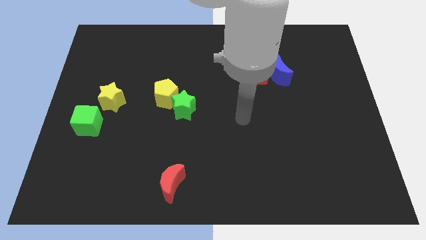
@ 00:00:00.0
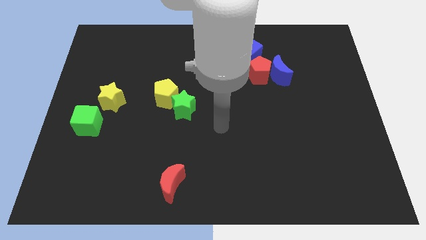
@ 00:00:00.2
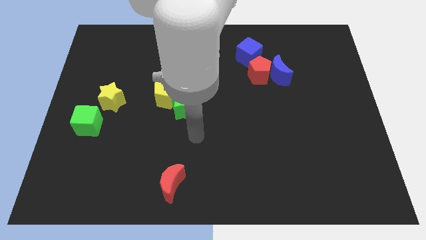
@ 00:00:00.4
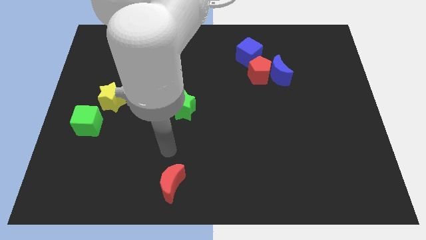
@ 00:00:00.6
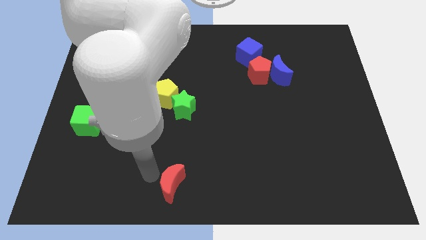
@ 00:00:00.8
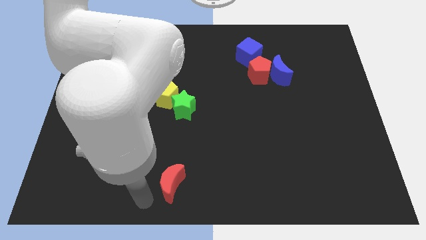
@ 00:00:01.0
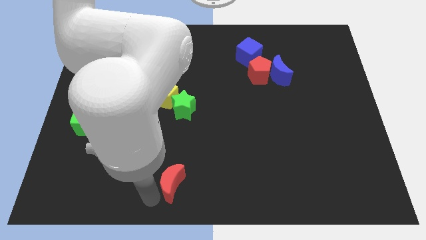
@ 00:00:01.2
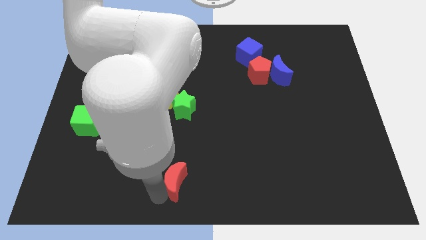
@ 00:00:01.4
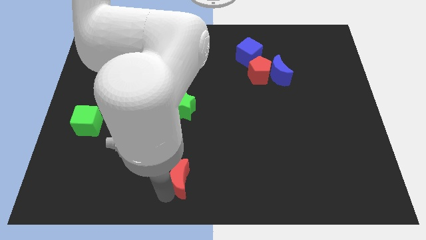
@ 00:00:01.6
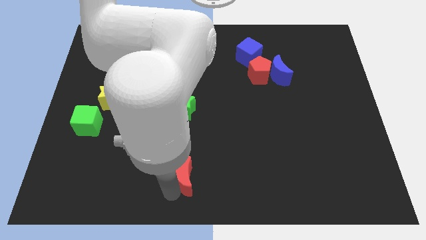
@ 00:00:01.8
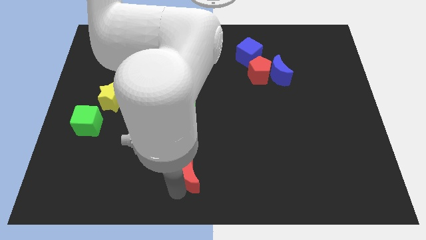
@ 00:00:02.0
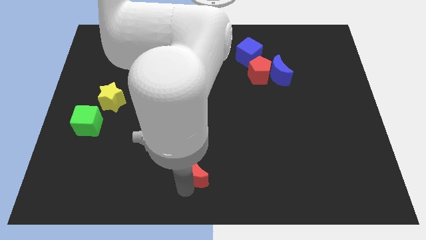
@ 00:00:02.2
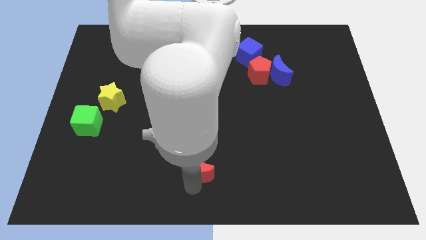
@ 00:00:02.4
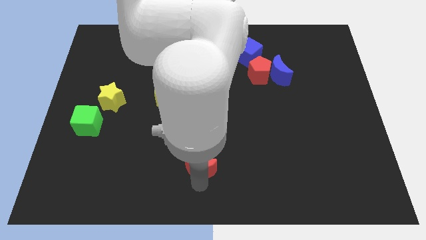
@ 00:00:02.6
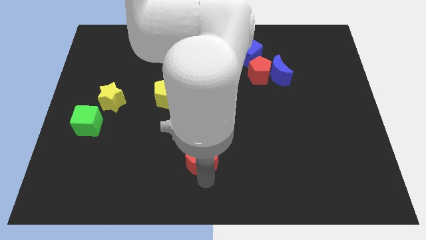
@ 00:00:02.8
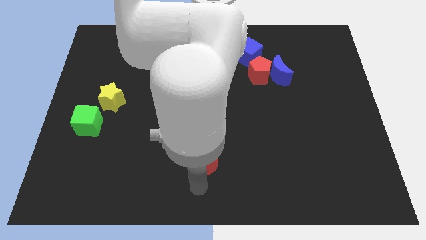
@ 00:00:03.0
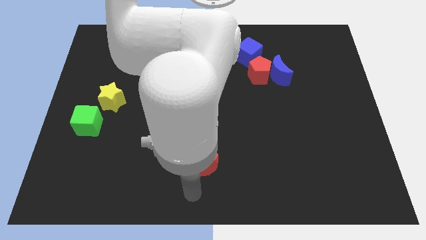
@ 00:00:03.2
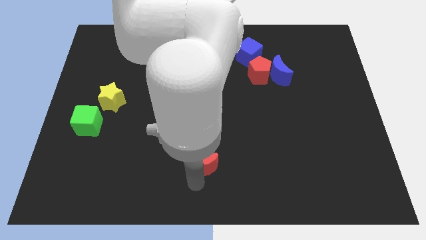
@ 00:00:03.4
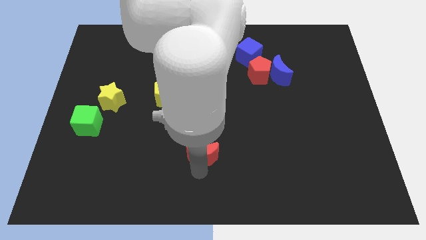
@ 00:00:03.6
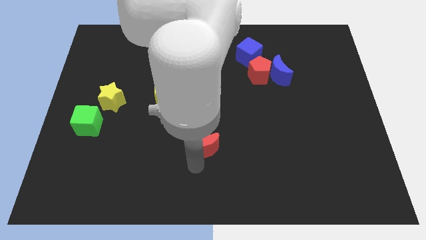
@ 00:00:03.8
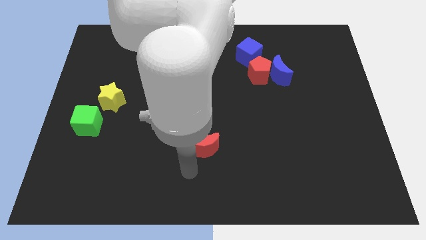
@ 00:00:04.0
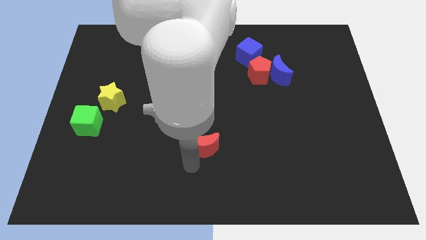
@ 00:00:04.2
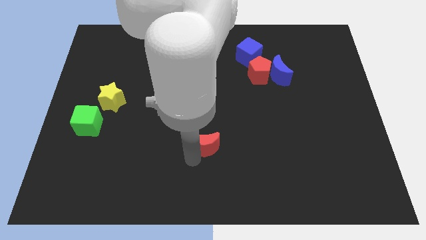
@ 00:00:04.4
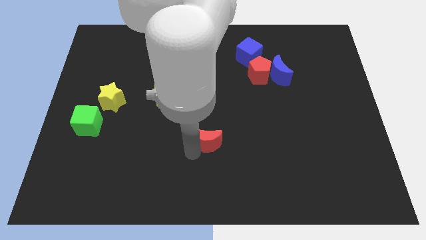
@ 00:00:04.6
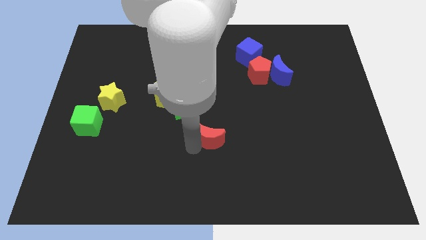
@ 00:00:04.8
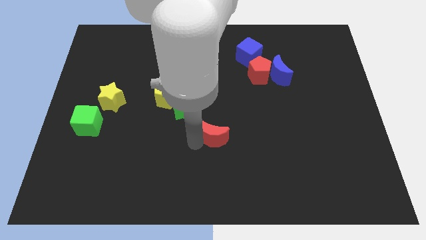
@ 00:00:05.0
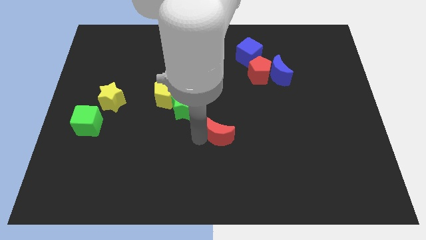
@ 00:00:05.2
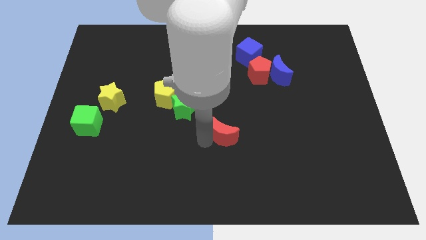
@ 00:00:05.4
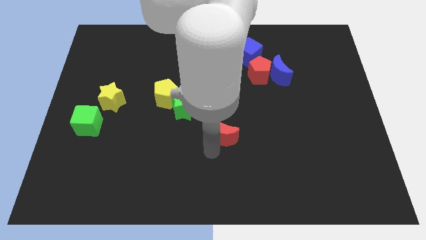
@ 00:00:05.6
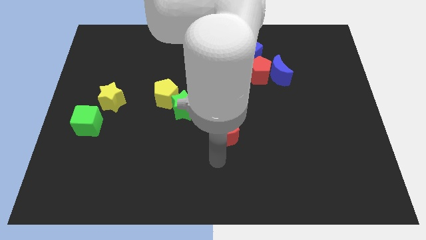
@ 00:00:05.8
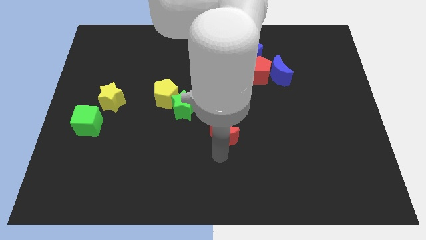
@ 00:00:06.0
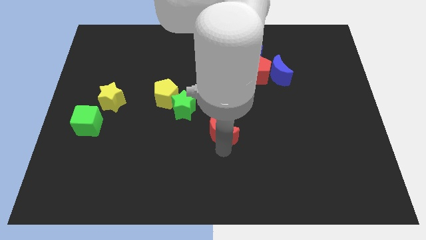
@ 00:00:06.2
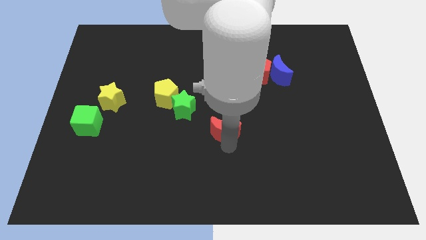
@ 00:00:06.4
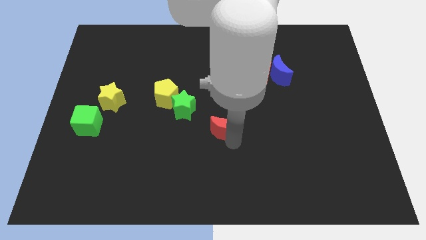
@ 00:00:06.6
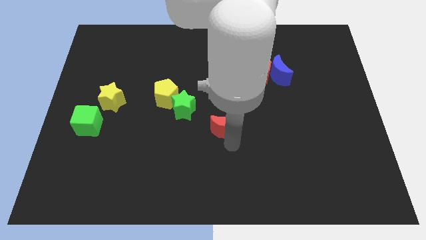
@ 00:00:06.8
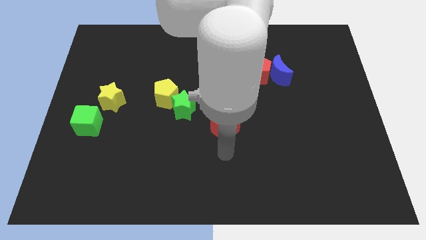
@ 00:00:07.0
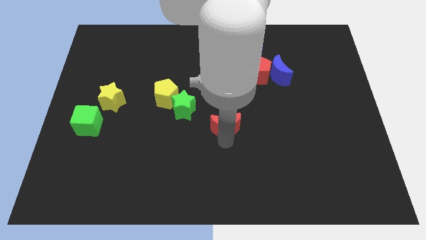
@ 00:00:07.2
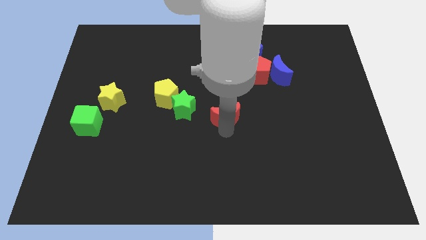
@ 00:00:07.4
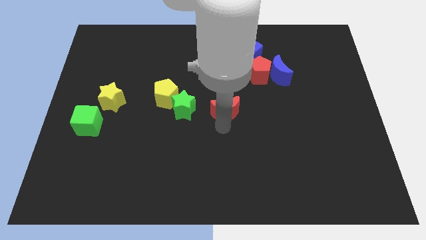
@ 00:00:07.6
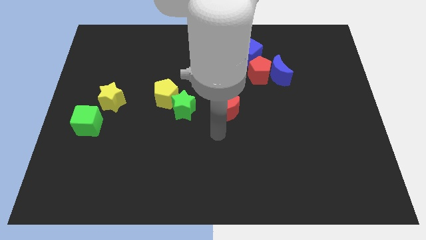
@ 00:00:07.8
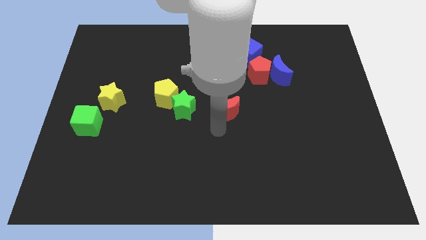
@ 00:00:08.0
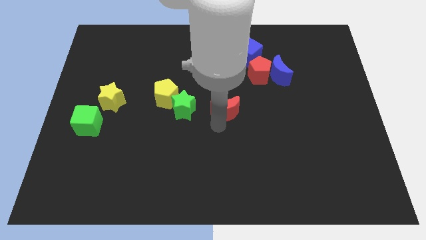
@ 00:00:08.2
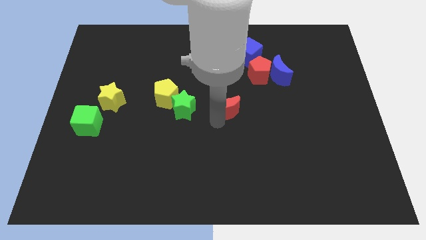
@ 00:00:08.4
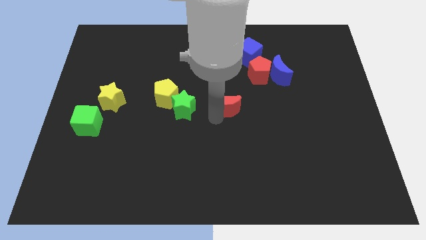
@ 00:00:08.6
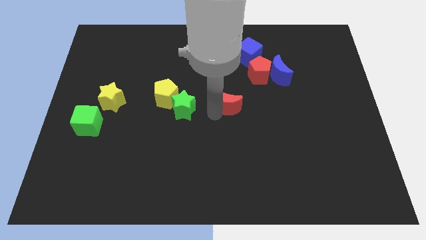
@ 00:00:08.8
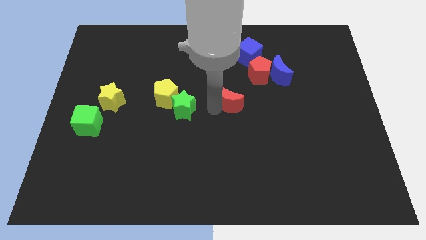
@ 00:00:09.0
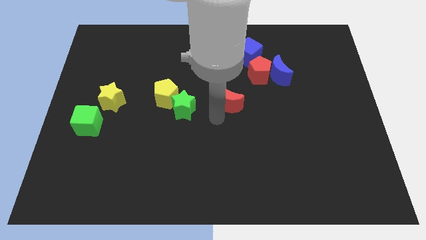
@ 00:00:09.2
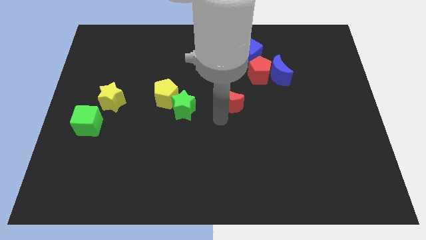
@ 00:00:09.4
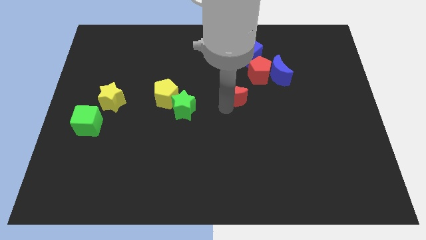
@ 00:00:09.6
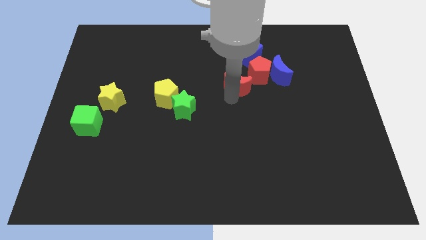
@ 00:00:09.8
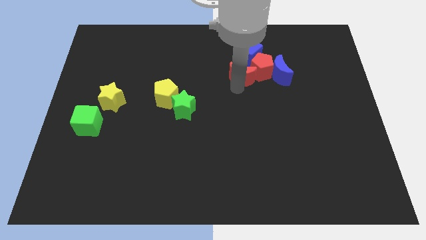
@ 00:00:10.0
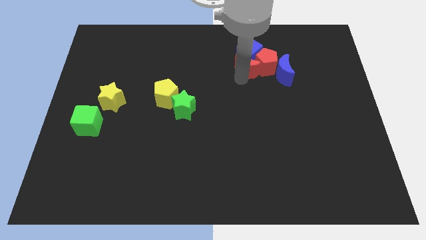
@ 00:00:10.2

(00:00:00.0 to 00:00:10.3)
put the red moon close to the blue cube

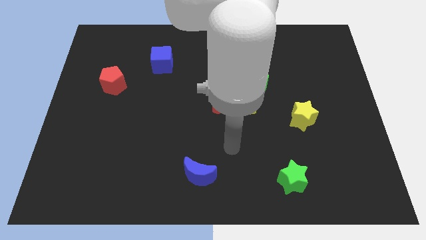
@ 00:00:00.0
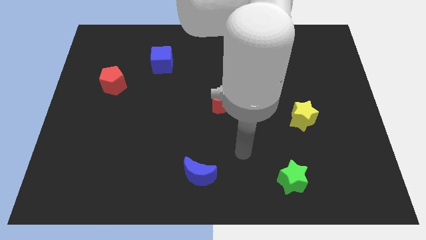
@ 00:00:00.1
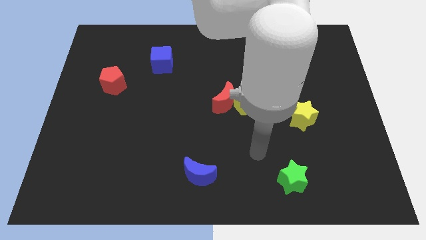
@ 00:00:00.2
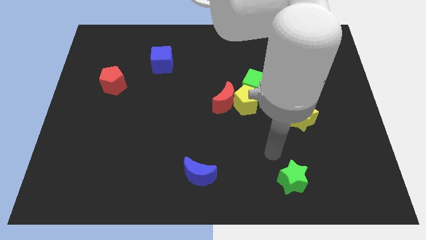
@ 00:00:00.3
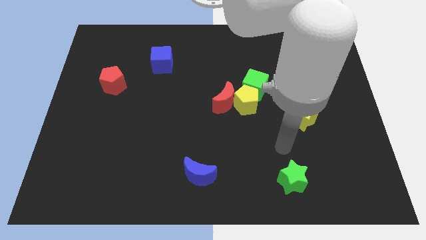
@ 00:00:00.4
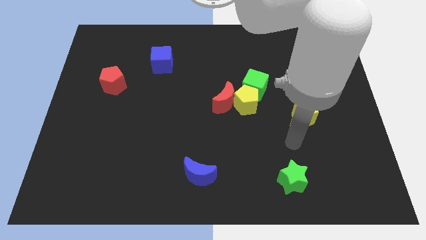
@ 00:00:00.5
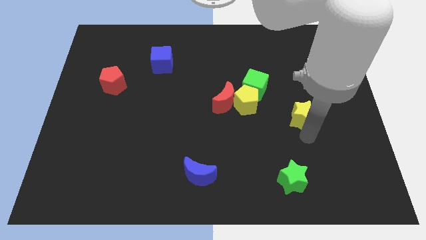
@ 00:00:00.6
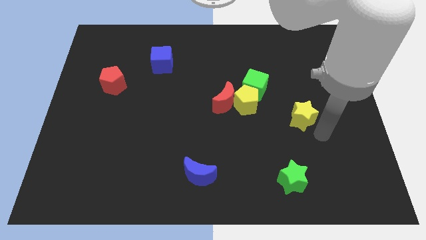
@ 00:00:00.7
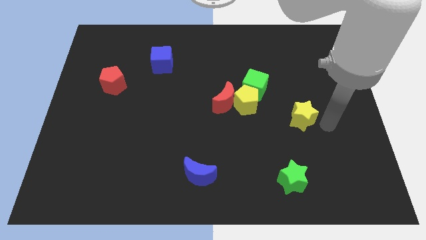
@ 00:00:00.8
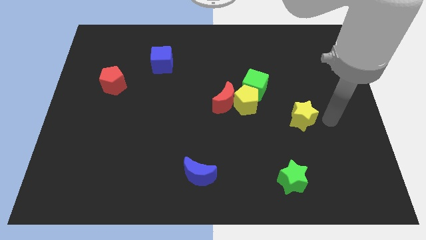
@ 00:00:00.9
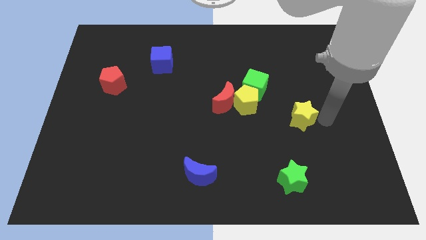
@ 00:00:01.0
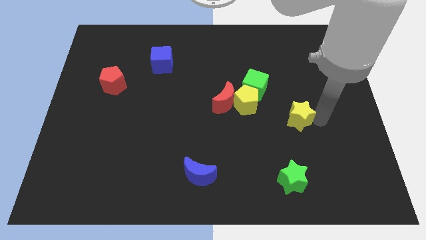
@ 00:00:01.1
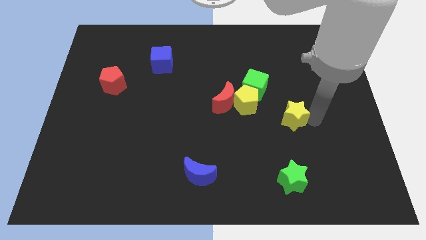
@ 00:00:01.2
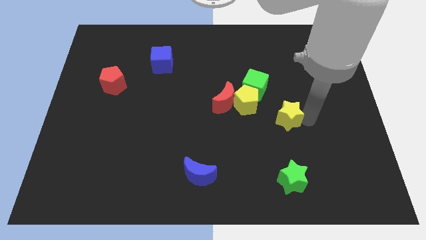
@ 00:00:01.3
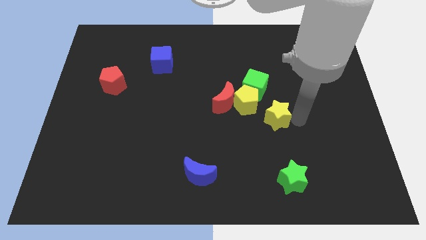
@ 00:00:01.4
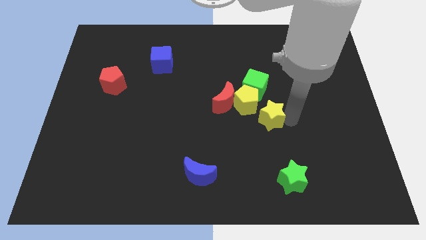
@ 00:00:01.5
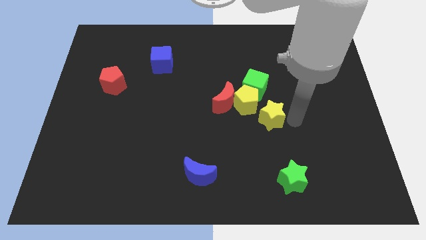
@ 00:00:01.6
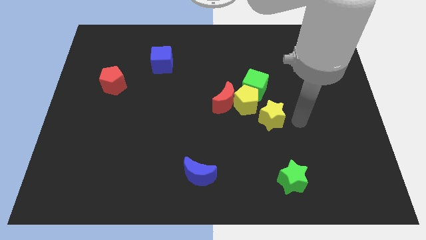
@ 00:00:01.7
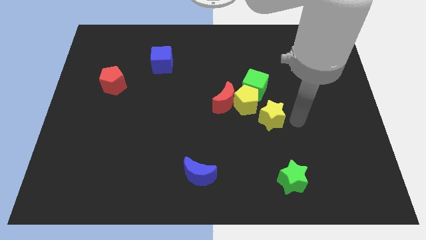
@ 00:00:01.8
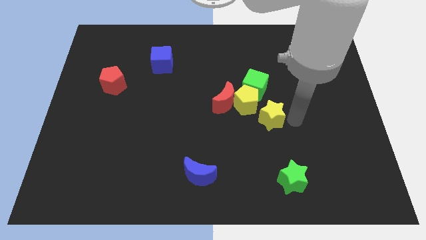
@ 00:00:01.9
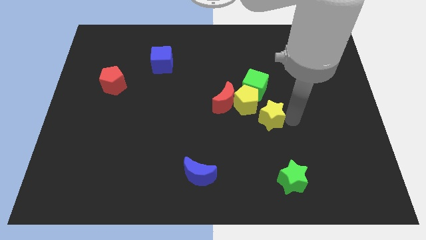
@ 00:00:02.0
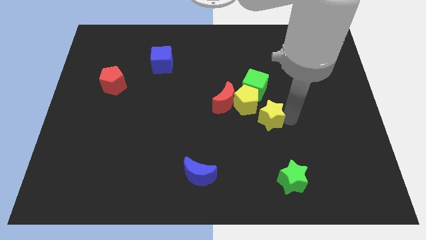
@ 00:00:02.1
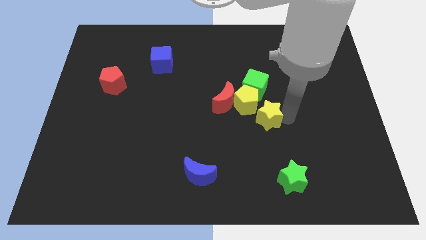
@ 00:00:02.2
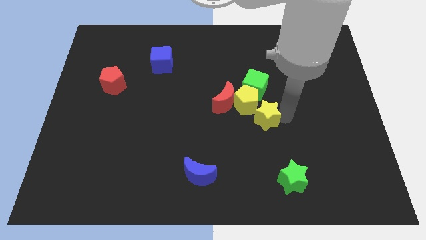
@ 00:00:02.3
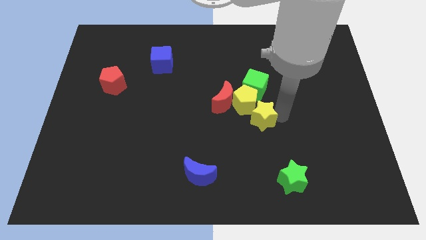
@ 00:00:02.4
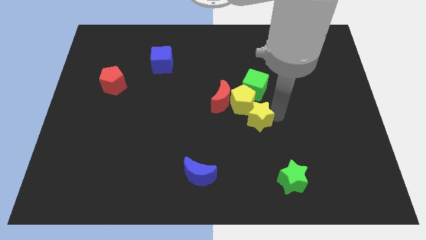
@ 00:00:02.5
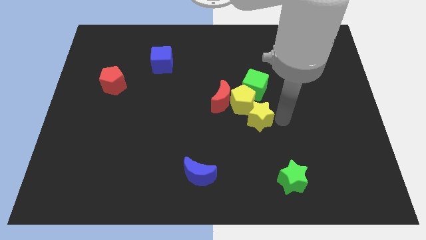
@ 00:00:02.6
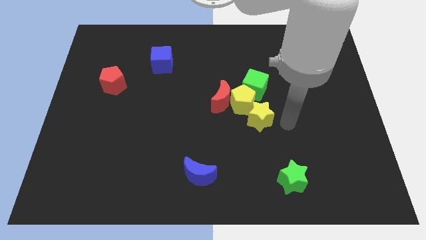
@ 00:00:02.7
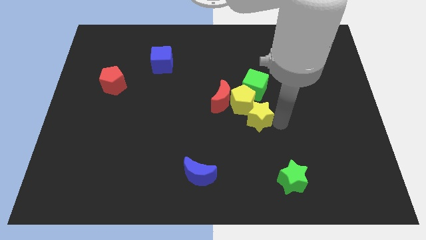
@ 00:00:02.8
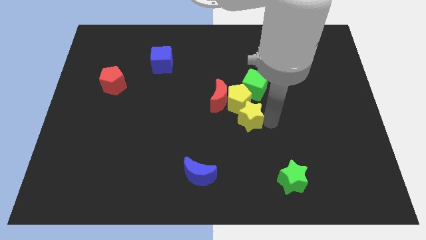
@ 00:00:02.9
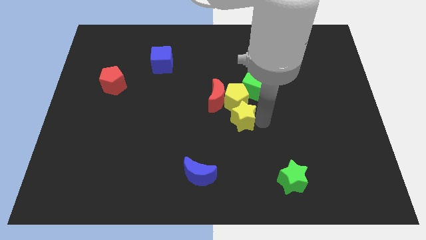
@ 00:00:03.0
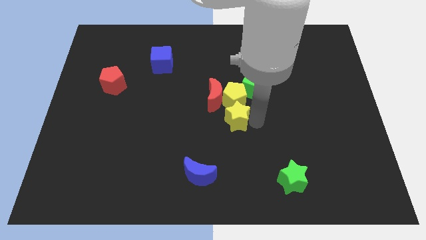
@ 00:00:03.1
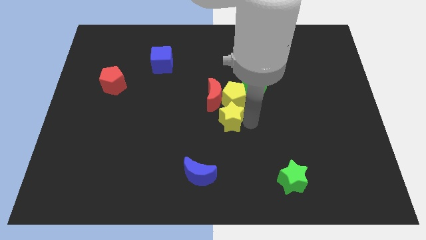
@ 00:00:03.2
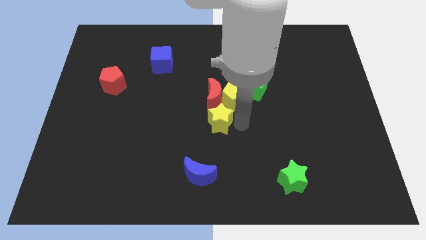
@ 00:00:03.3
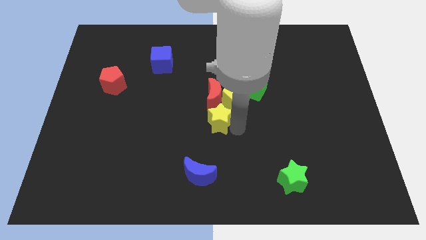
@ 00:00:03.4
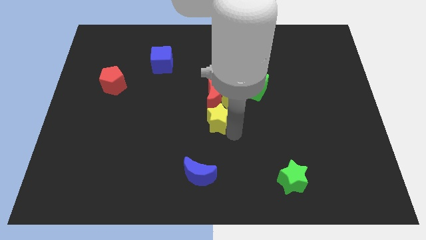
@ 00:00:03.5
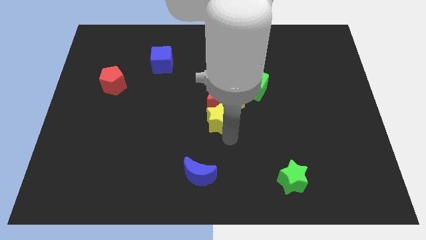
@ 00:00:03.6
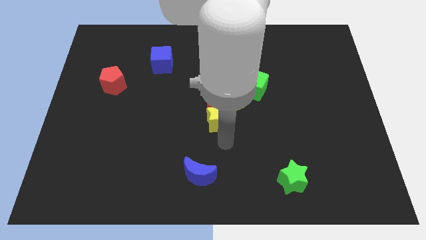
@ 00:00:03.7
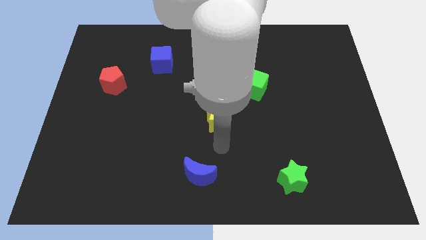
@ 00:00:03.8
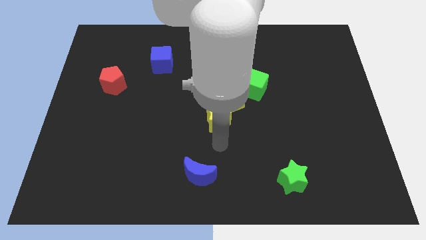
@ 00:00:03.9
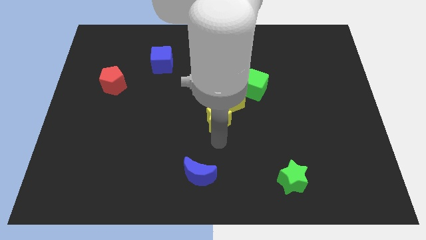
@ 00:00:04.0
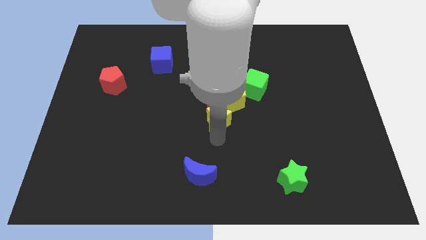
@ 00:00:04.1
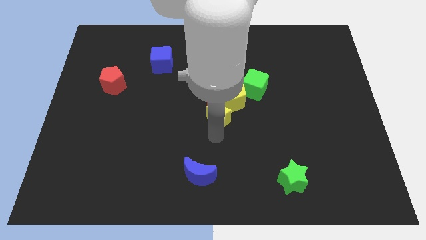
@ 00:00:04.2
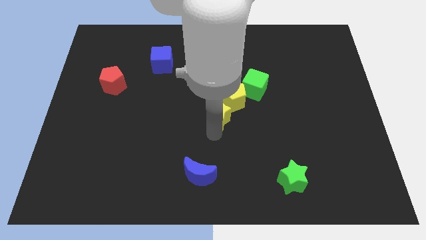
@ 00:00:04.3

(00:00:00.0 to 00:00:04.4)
put the yellow star close to the red moon
